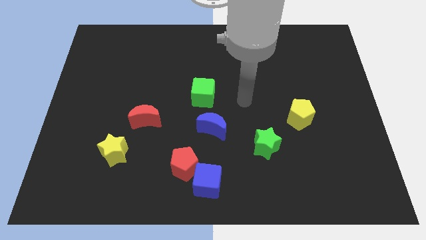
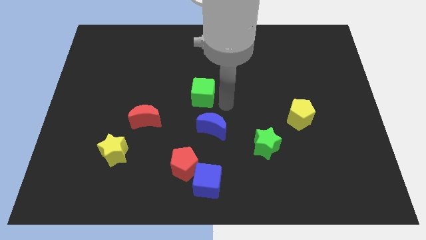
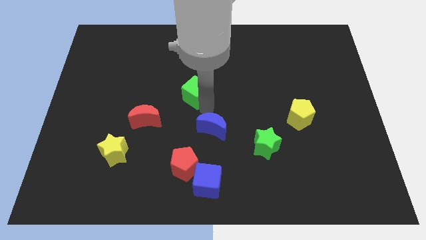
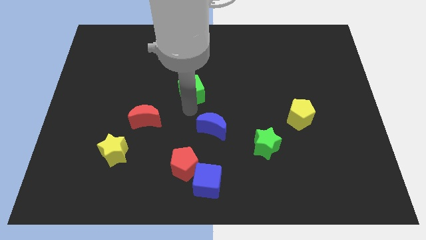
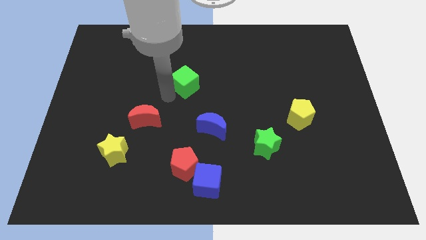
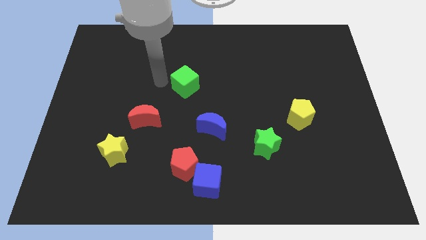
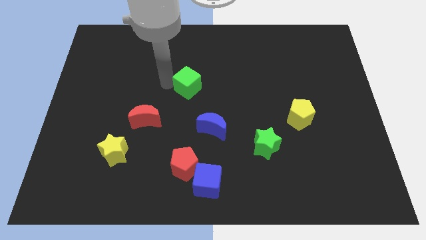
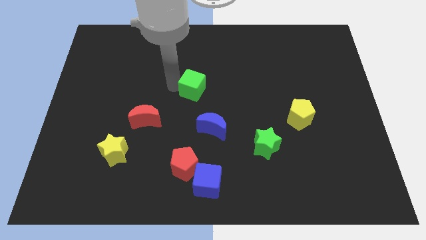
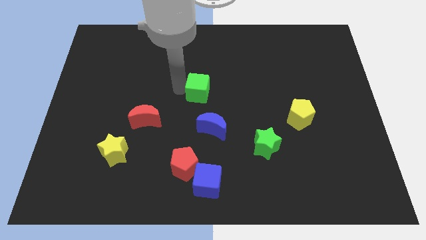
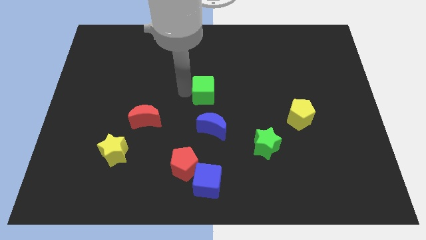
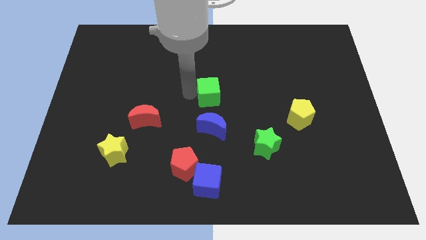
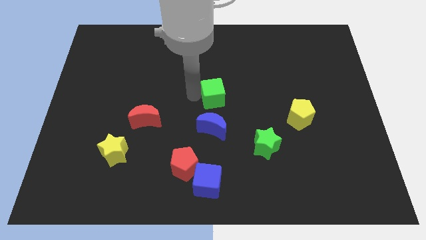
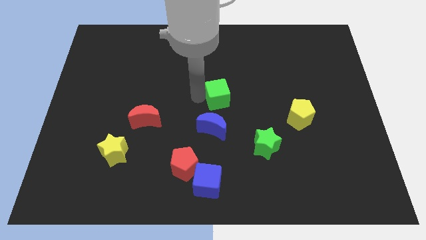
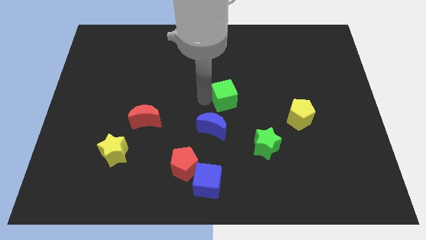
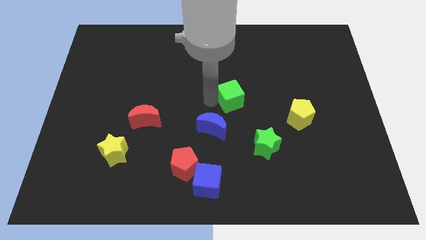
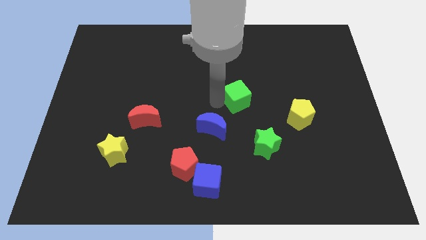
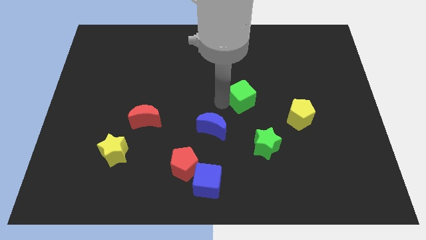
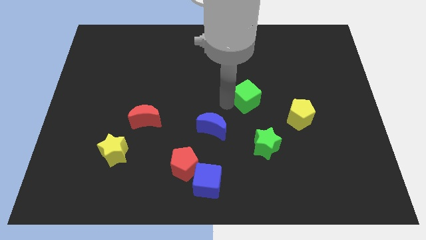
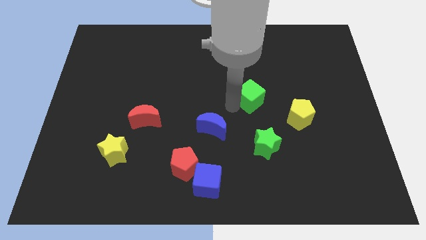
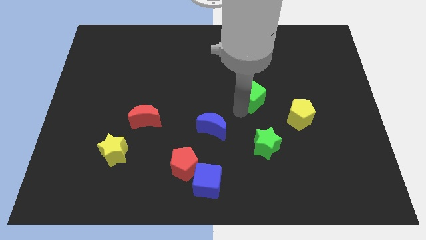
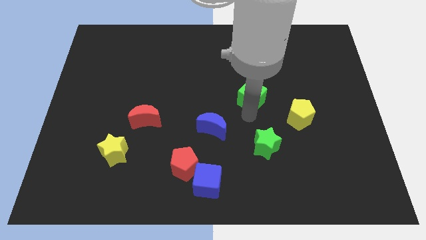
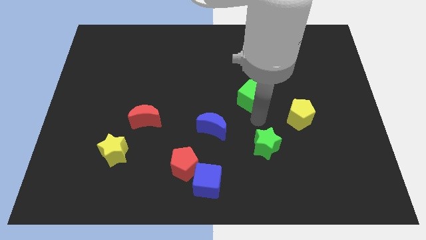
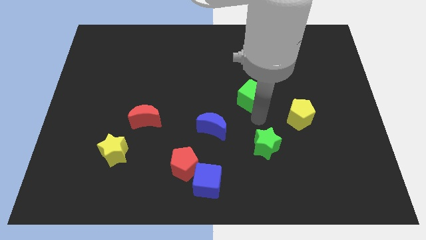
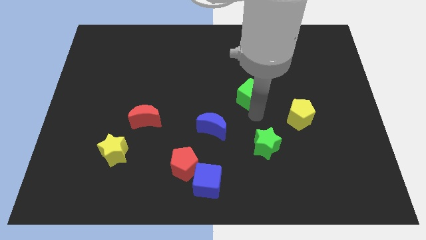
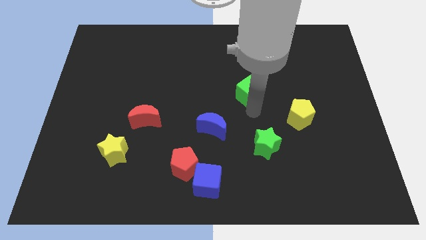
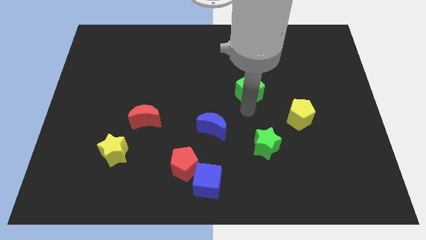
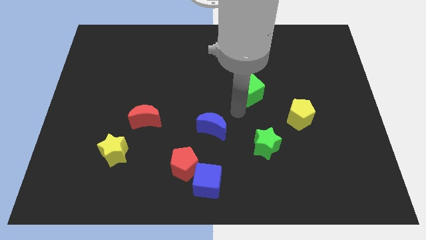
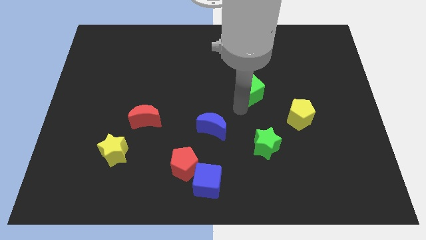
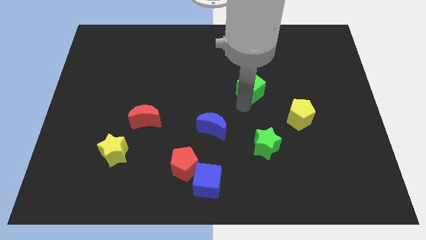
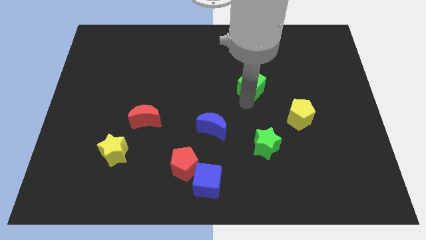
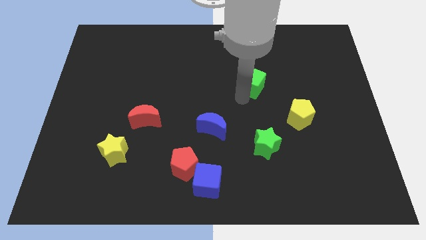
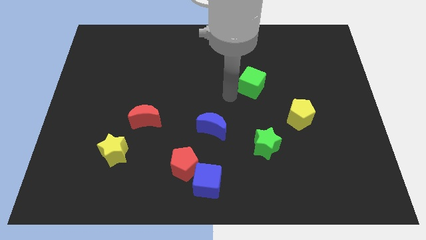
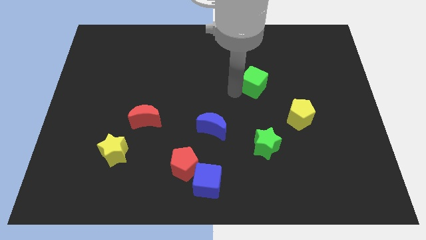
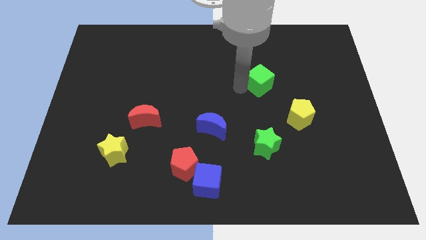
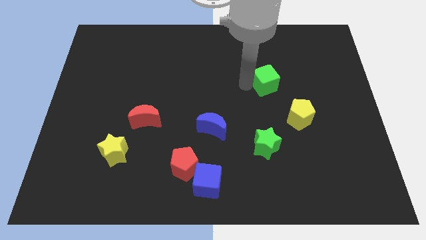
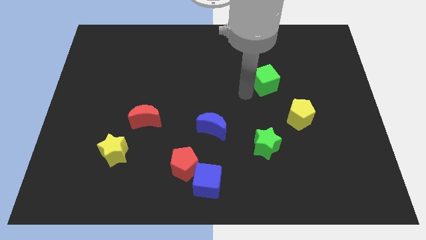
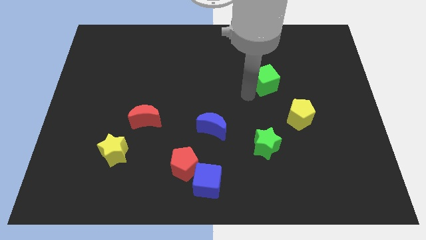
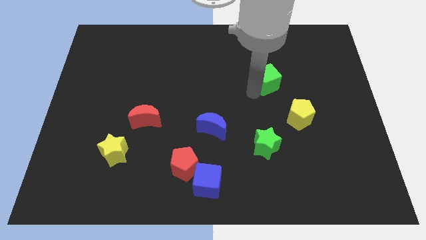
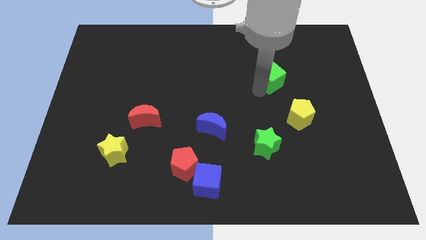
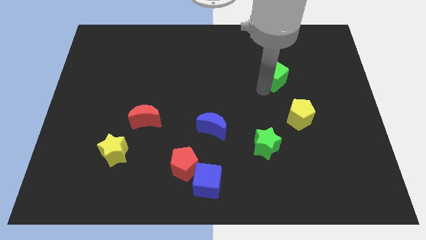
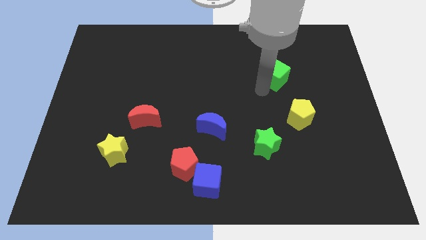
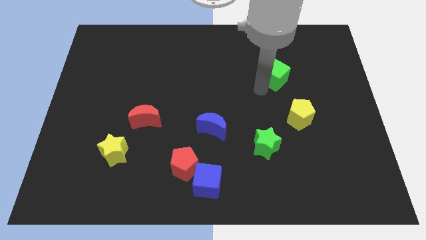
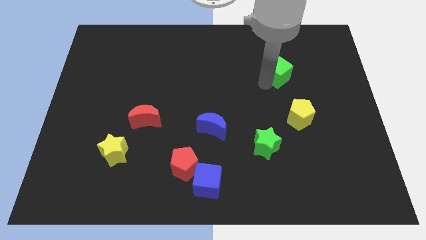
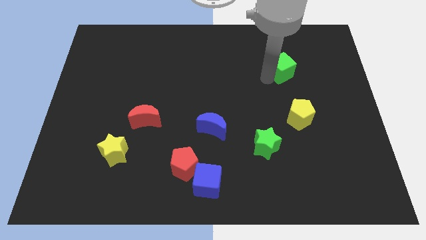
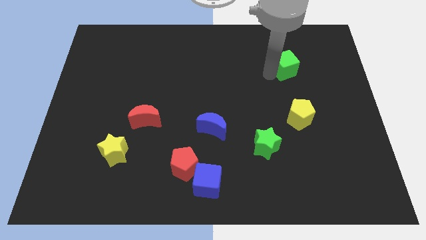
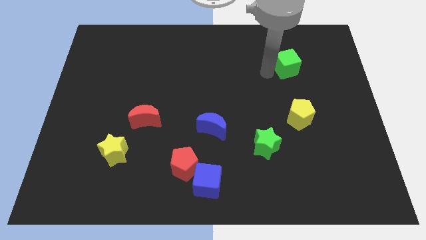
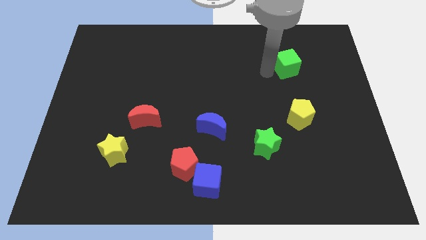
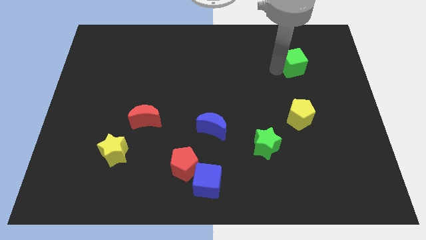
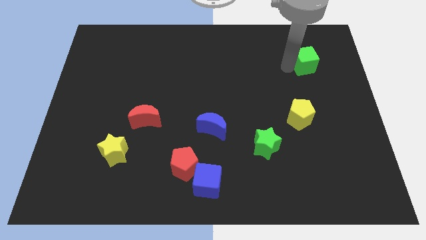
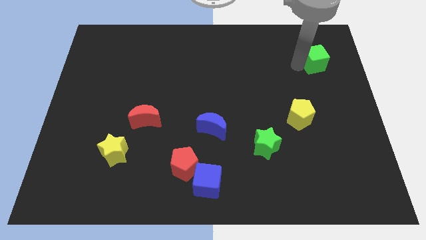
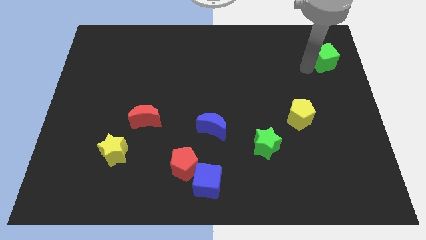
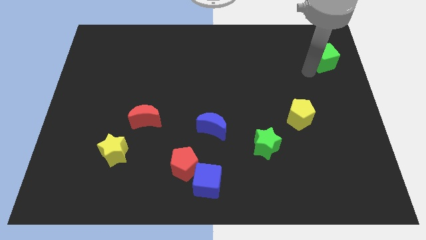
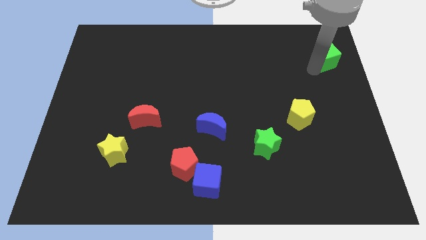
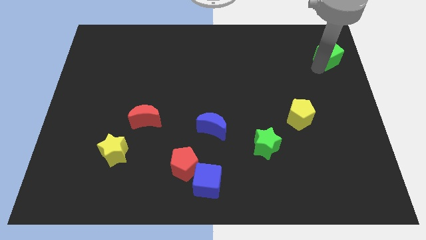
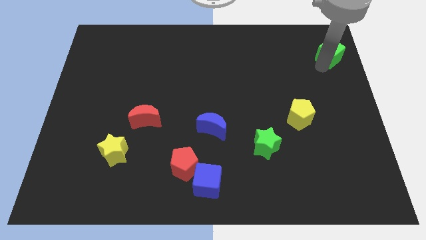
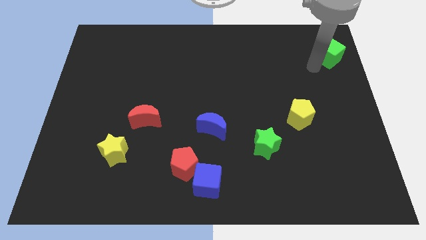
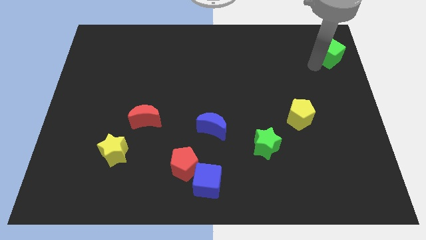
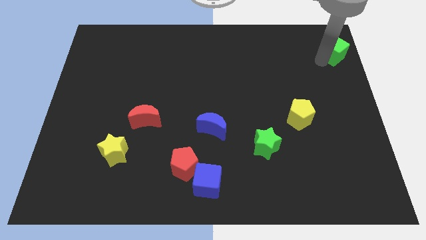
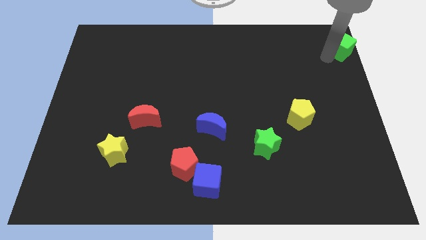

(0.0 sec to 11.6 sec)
put the green cube to the top right of the board

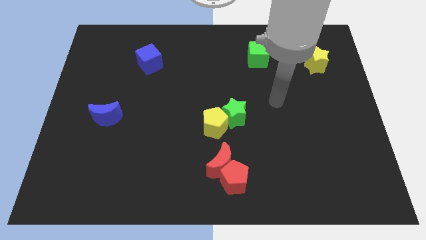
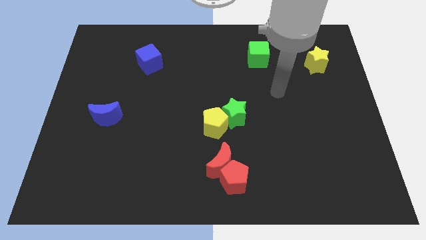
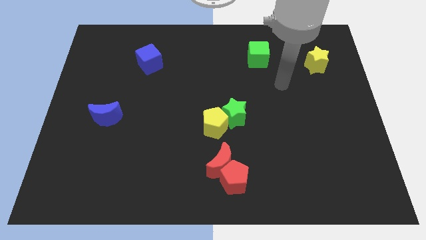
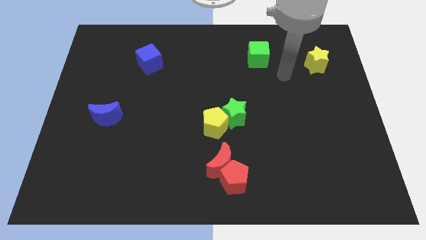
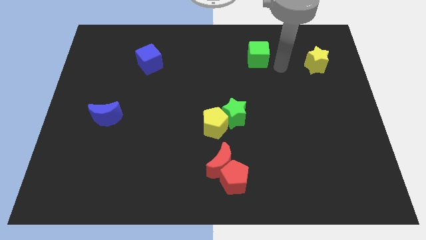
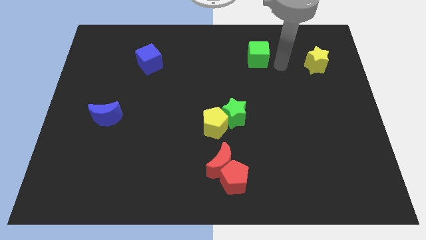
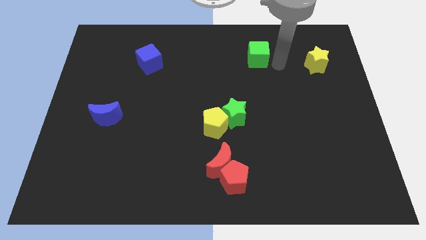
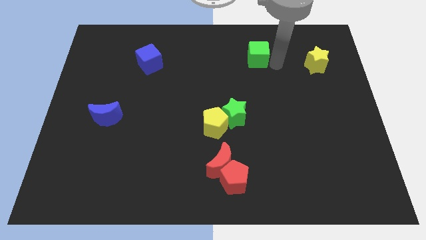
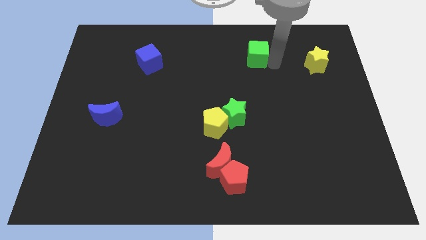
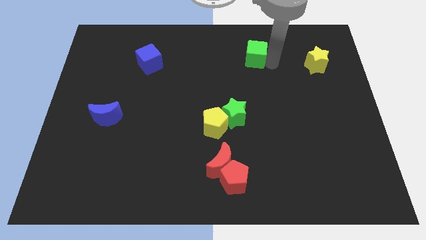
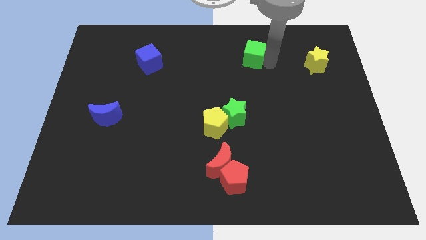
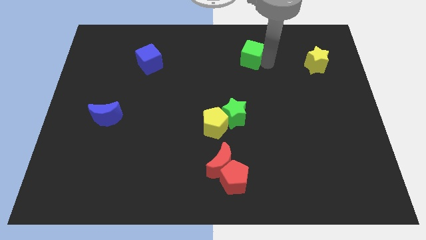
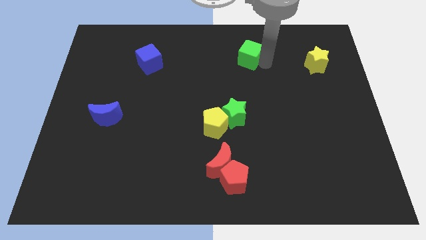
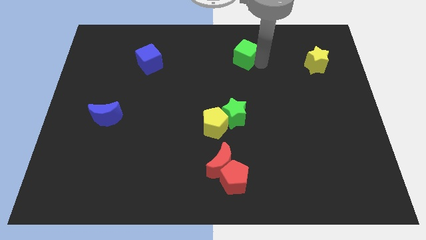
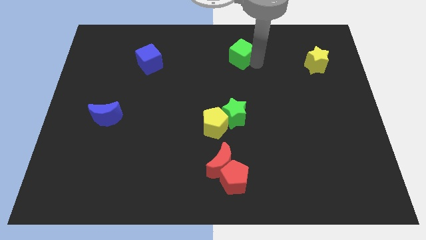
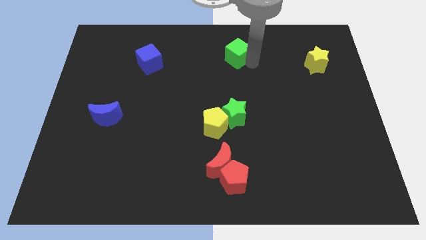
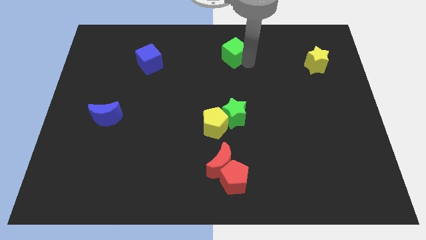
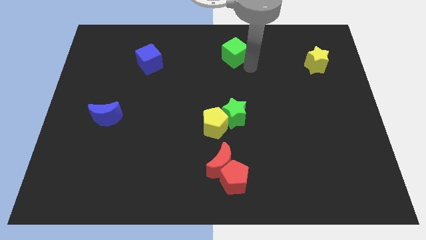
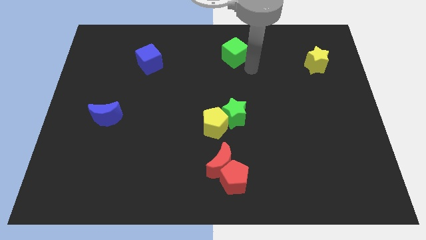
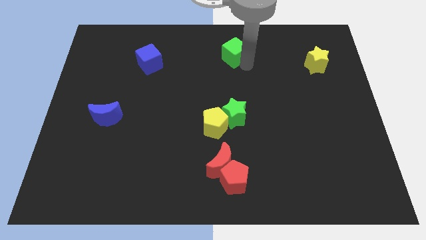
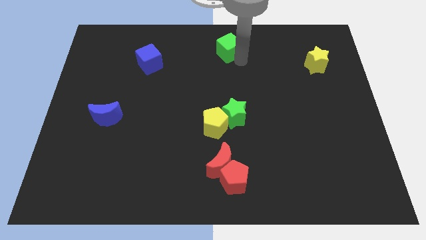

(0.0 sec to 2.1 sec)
push the green cube to the top
